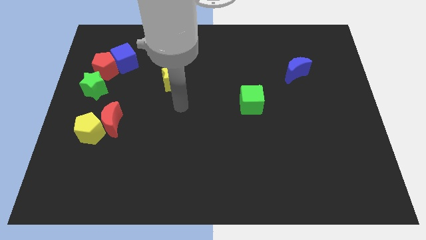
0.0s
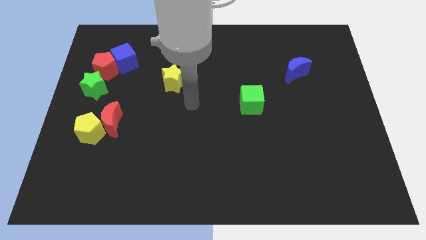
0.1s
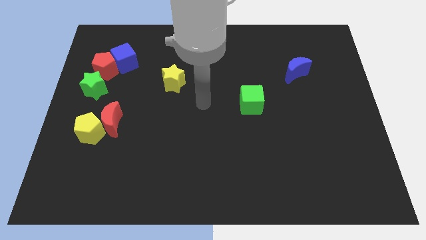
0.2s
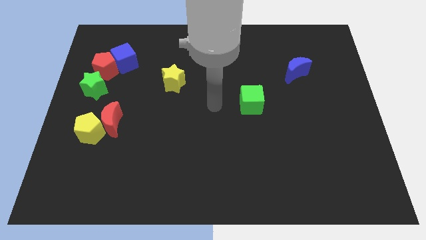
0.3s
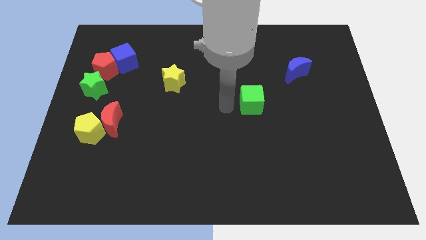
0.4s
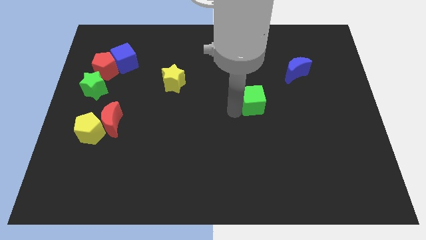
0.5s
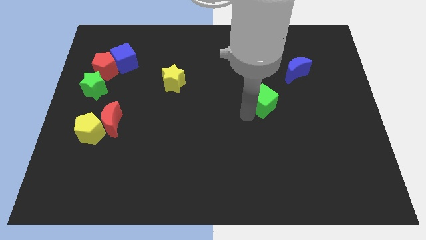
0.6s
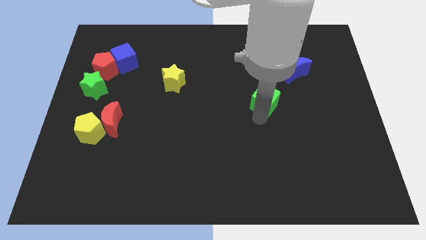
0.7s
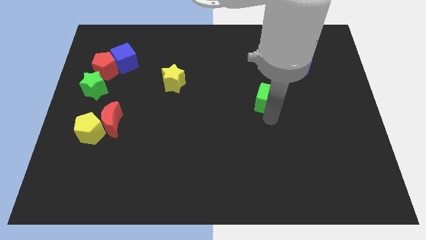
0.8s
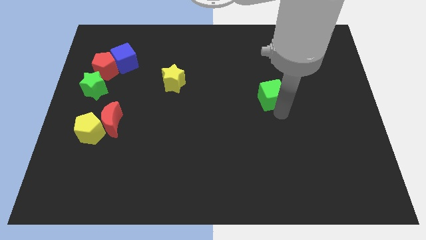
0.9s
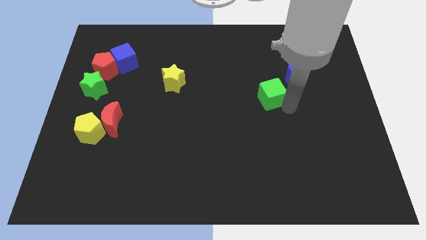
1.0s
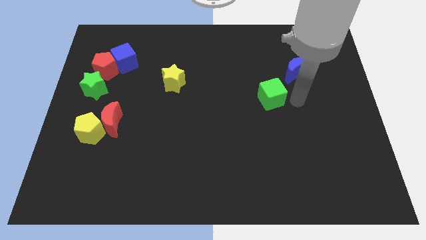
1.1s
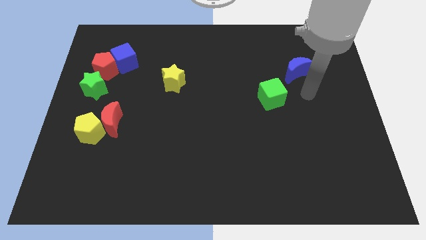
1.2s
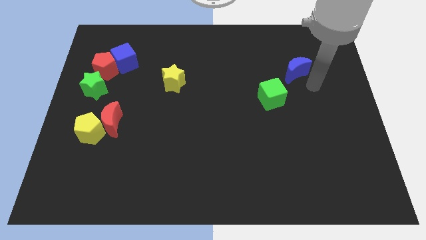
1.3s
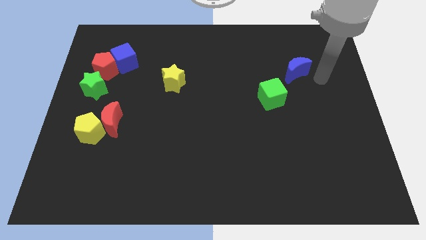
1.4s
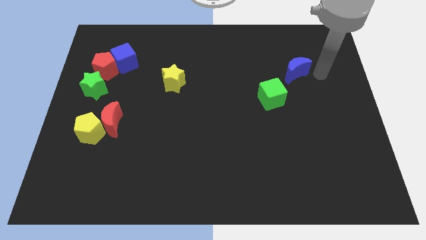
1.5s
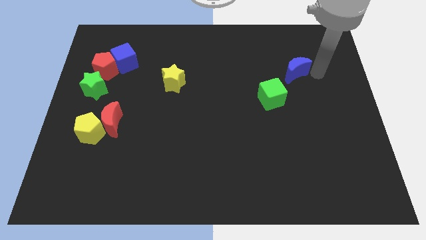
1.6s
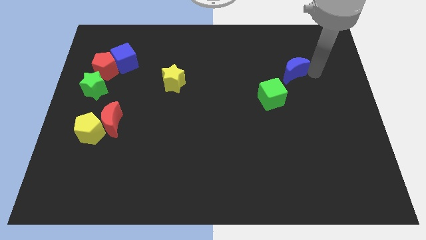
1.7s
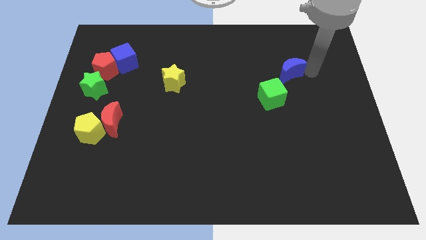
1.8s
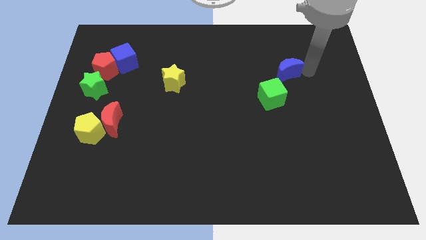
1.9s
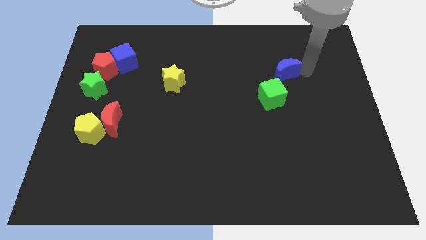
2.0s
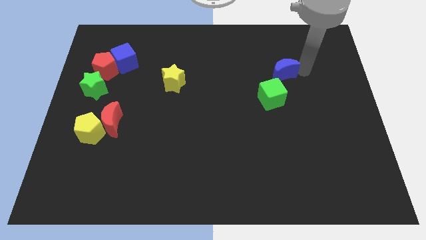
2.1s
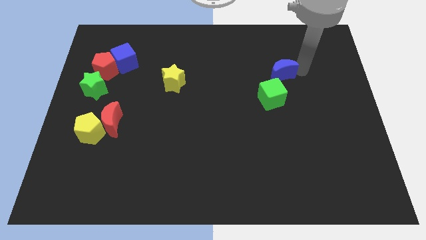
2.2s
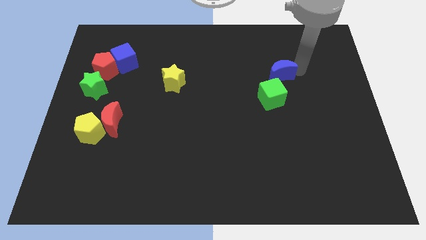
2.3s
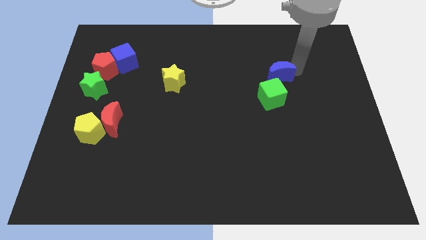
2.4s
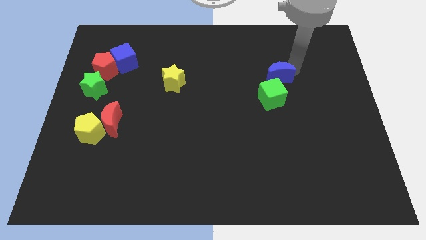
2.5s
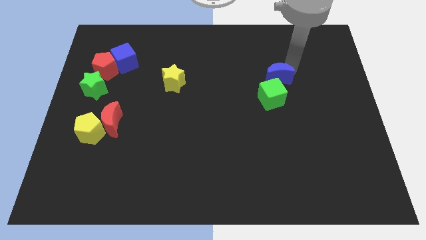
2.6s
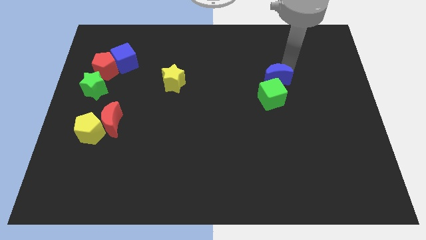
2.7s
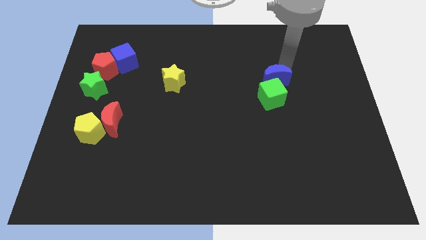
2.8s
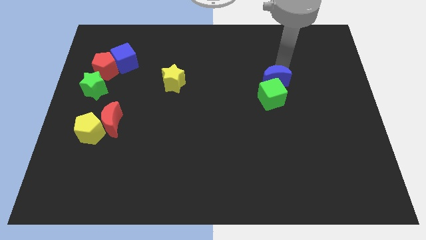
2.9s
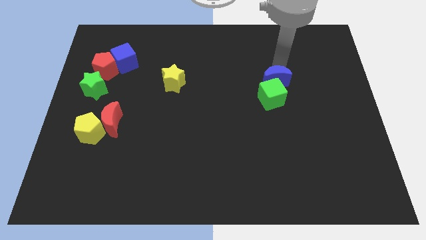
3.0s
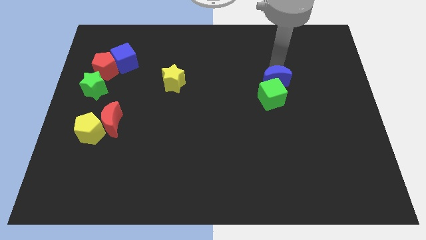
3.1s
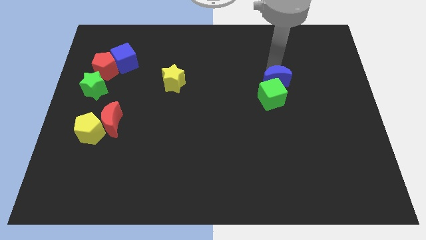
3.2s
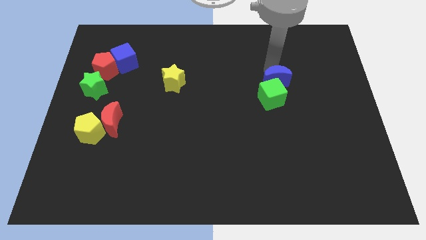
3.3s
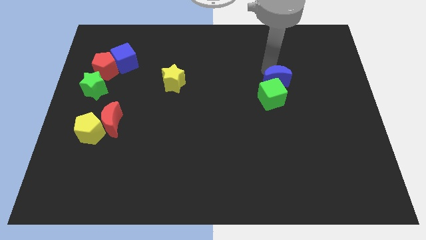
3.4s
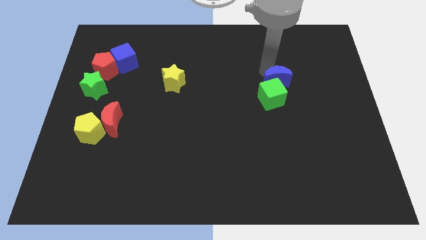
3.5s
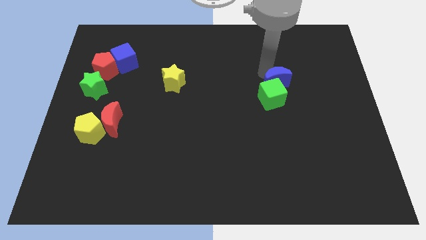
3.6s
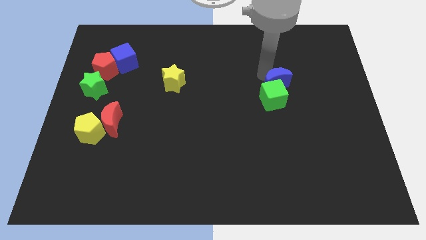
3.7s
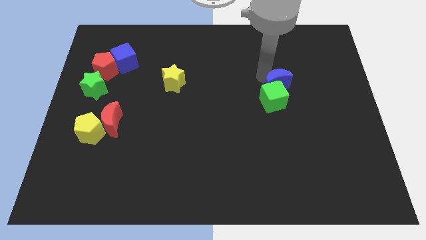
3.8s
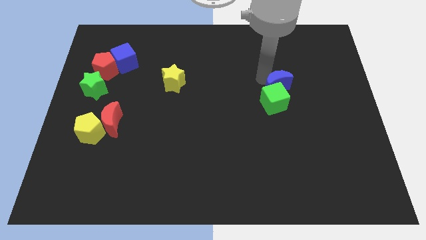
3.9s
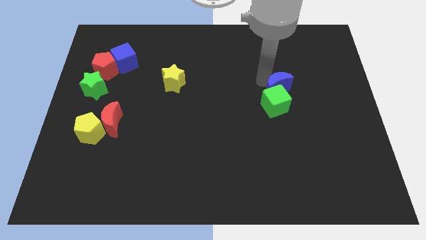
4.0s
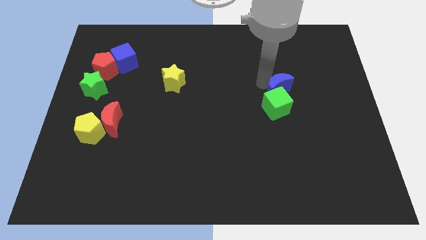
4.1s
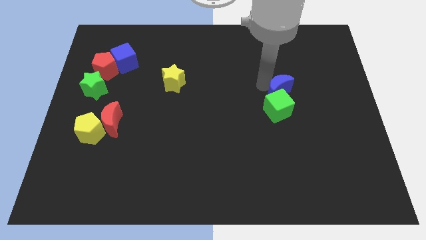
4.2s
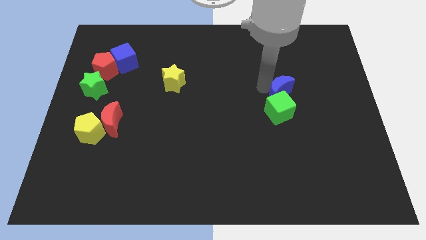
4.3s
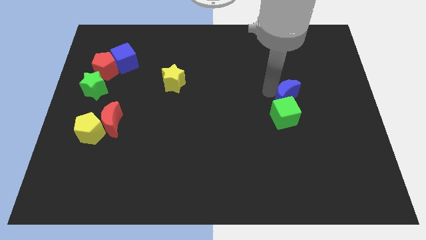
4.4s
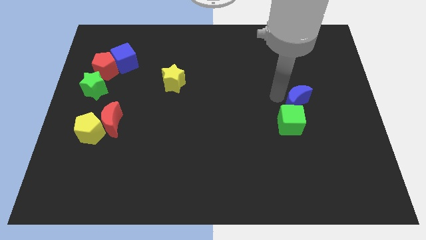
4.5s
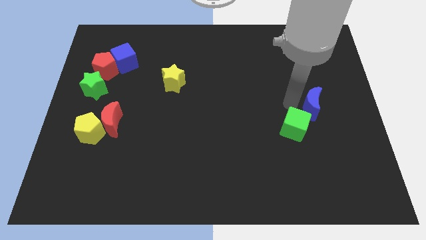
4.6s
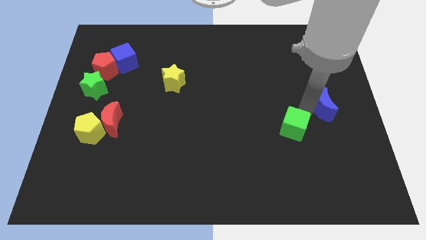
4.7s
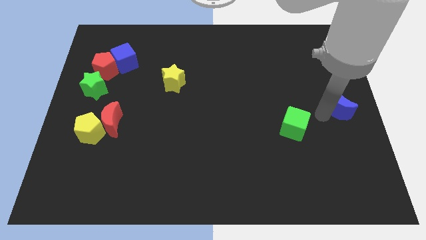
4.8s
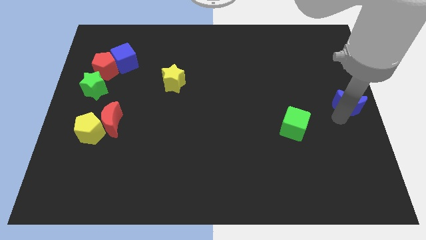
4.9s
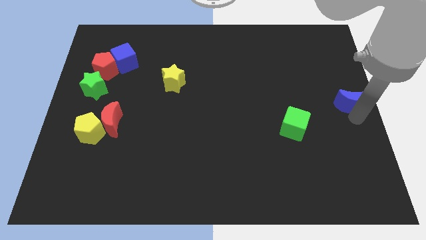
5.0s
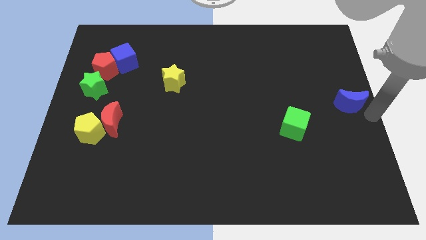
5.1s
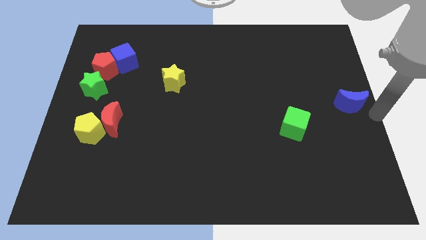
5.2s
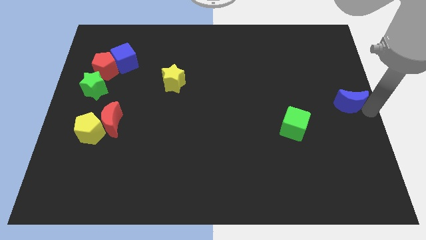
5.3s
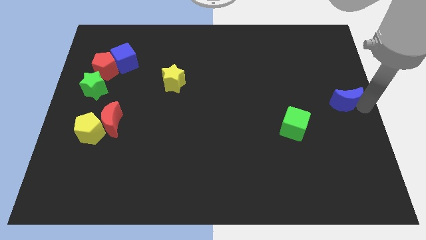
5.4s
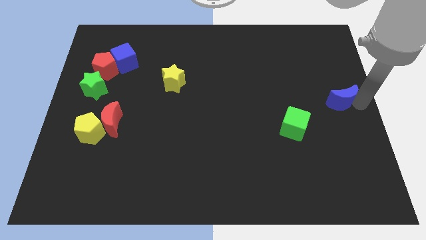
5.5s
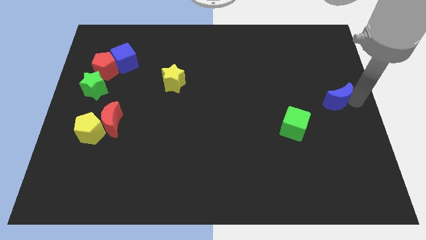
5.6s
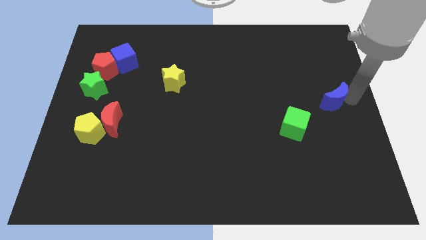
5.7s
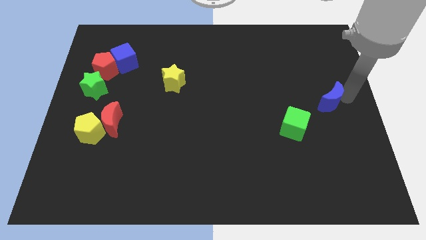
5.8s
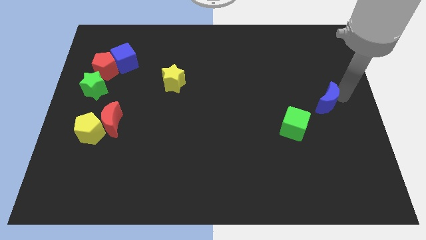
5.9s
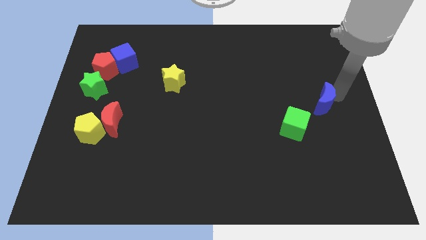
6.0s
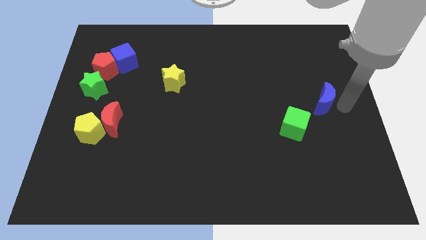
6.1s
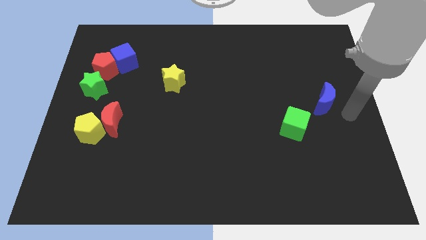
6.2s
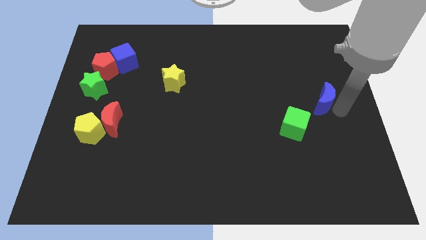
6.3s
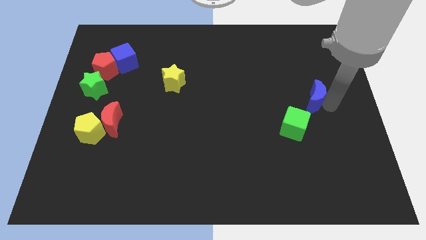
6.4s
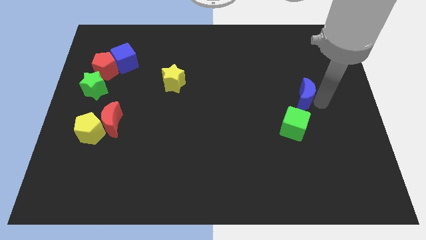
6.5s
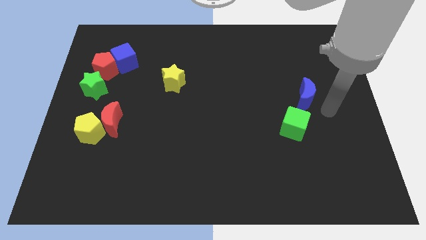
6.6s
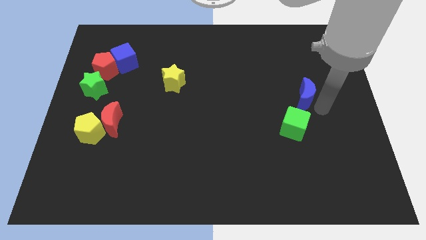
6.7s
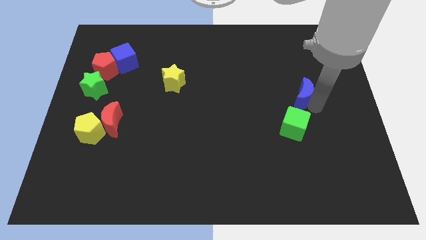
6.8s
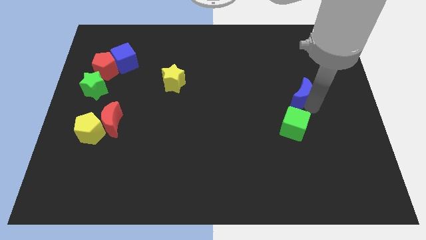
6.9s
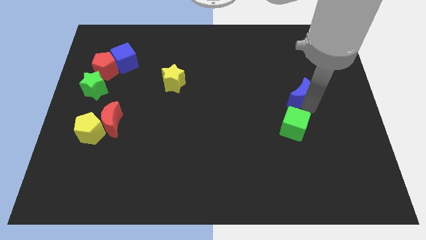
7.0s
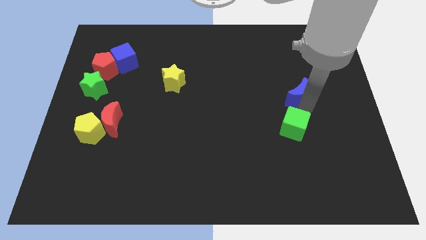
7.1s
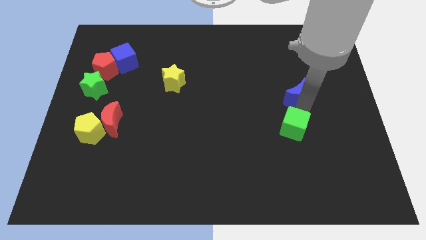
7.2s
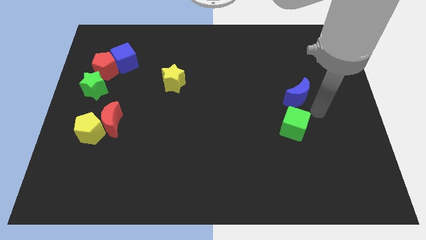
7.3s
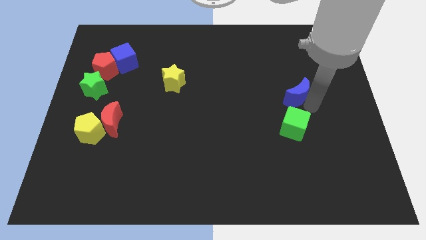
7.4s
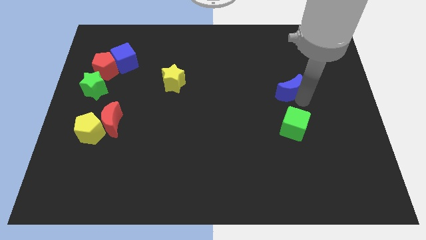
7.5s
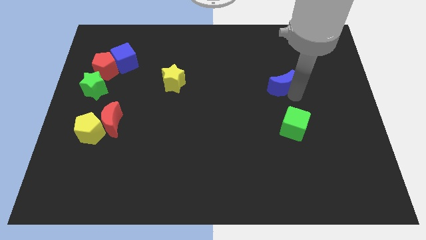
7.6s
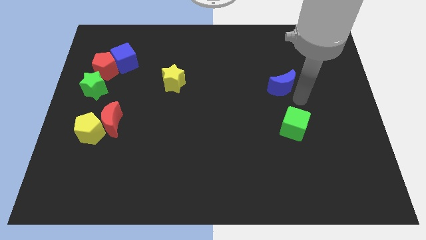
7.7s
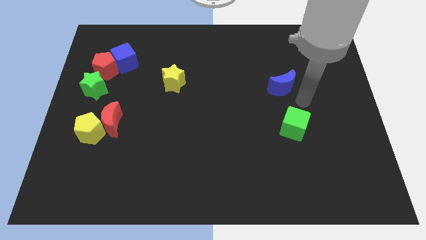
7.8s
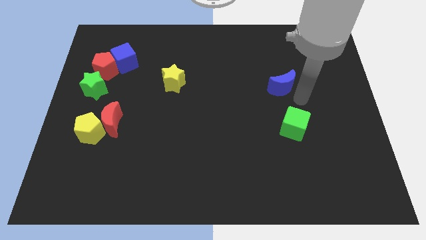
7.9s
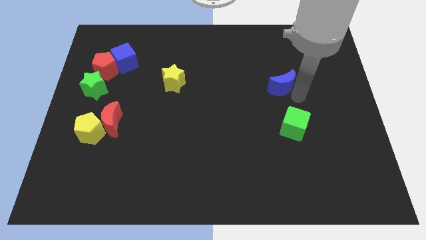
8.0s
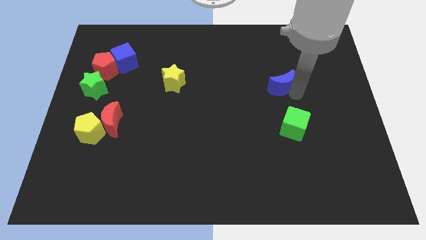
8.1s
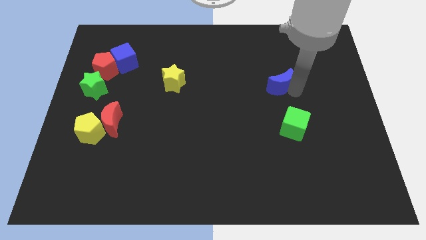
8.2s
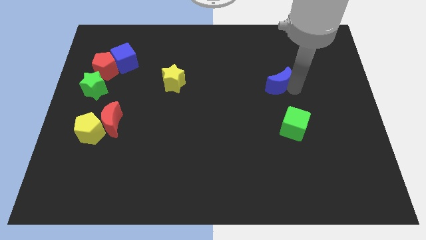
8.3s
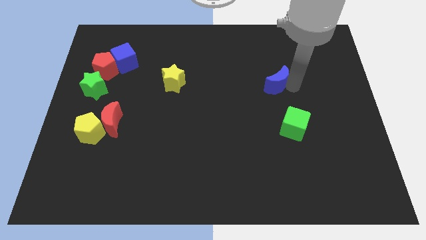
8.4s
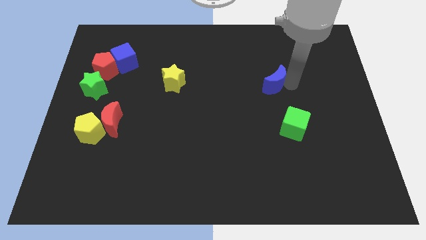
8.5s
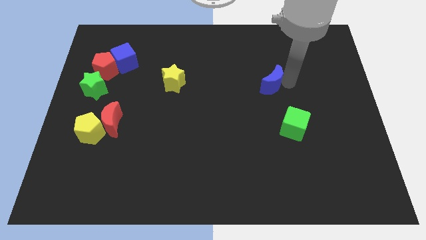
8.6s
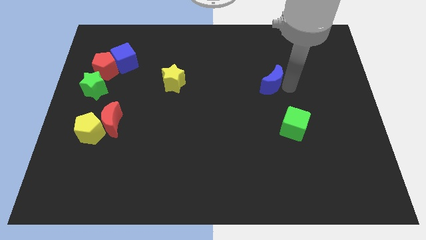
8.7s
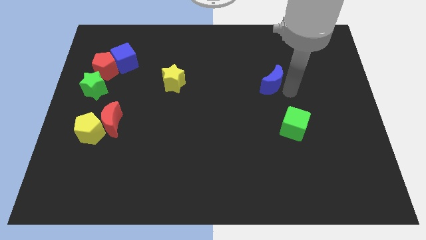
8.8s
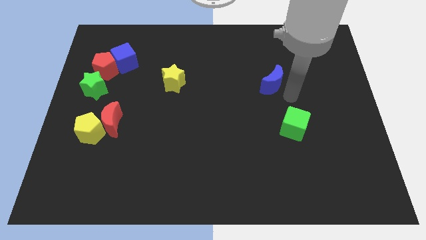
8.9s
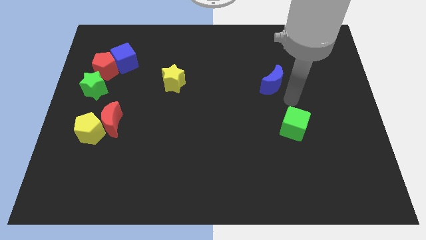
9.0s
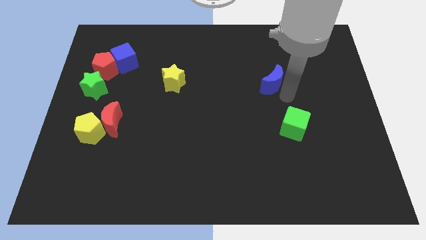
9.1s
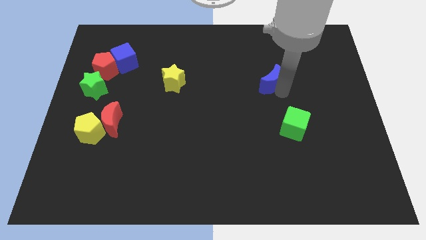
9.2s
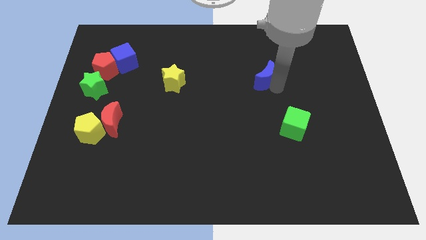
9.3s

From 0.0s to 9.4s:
slightly push the blue moon left
